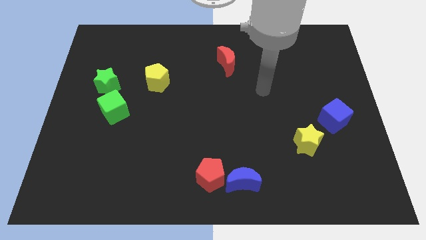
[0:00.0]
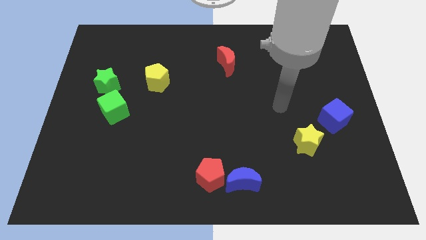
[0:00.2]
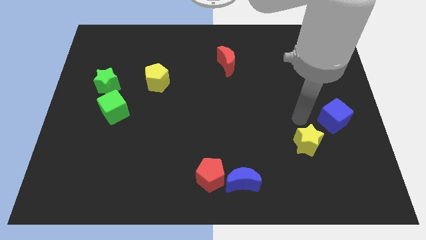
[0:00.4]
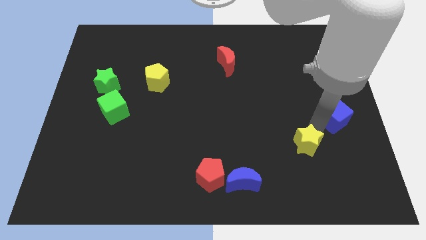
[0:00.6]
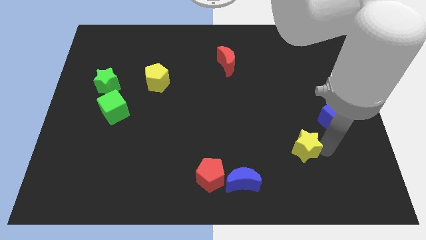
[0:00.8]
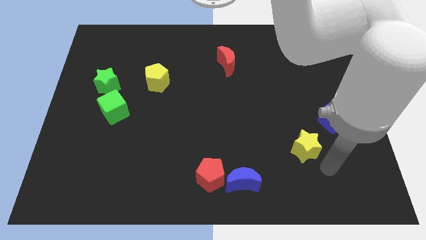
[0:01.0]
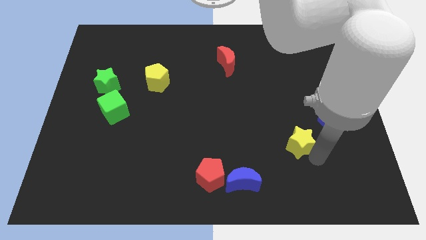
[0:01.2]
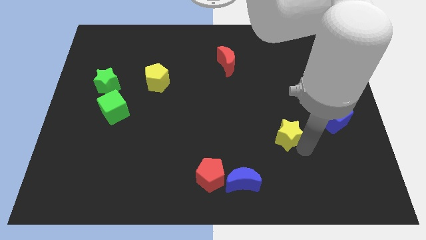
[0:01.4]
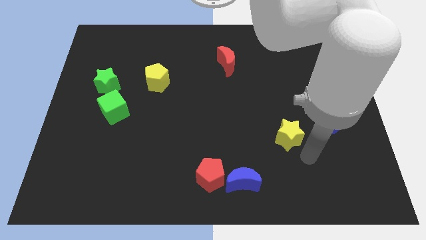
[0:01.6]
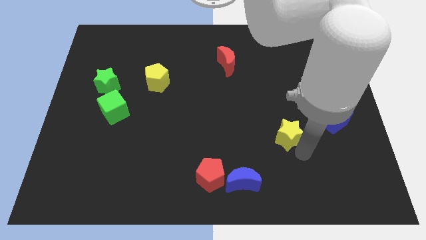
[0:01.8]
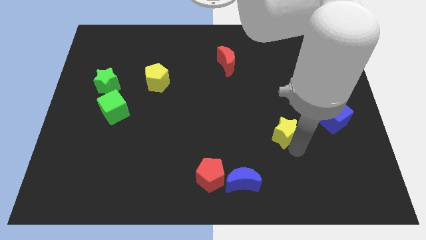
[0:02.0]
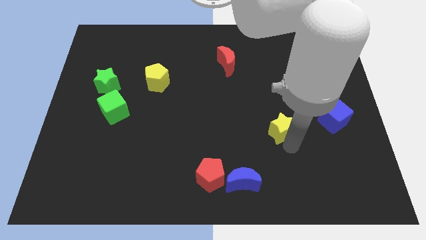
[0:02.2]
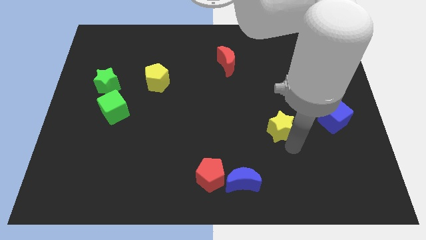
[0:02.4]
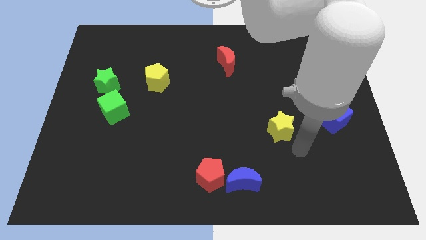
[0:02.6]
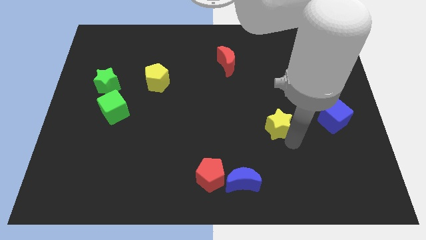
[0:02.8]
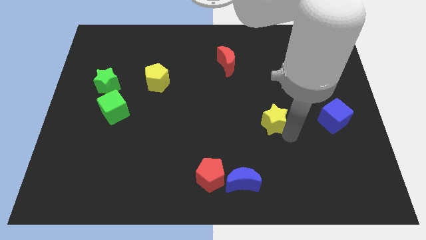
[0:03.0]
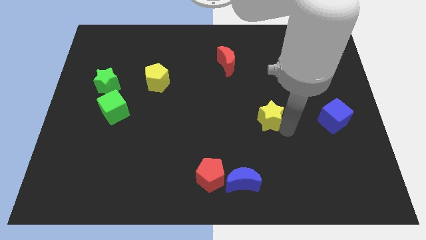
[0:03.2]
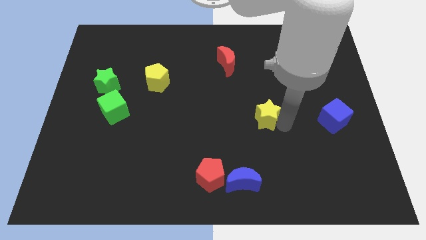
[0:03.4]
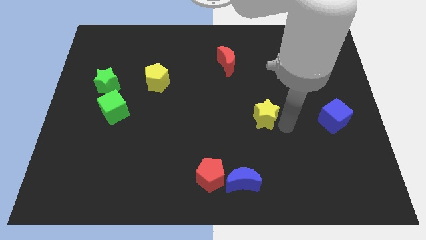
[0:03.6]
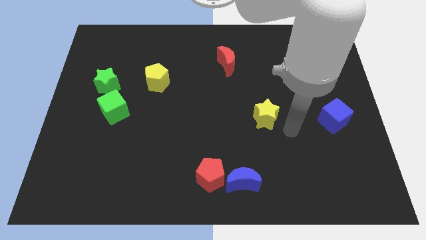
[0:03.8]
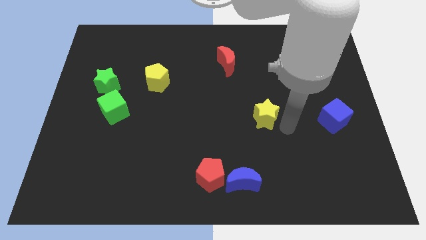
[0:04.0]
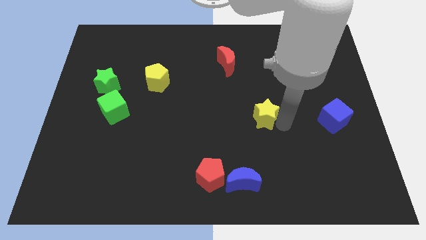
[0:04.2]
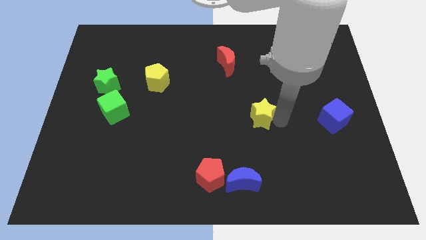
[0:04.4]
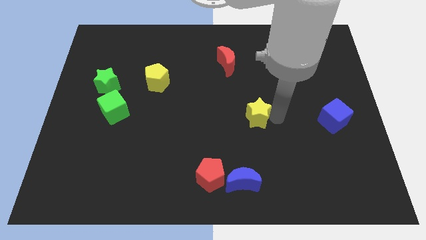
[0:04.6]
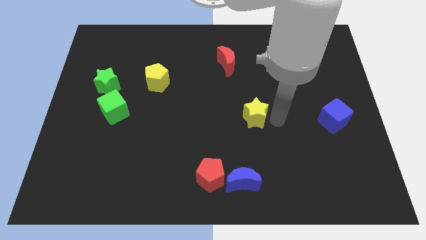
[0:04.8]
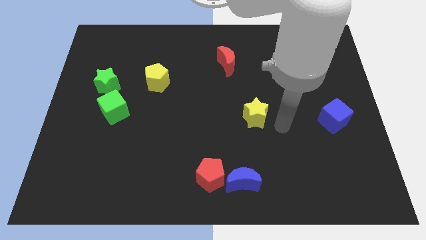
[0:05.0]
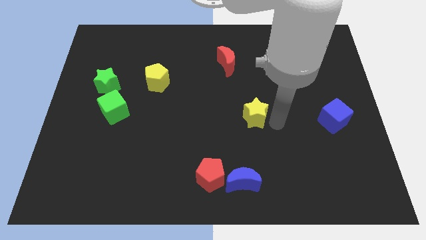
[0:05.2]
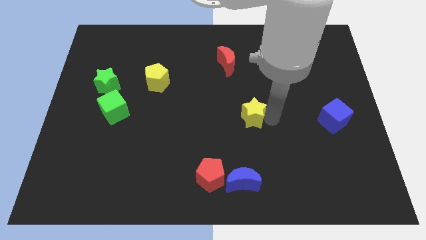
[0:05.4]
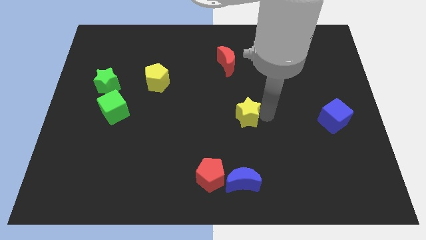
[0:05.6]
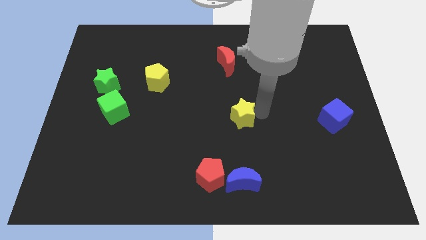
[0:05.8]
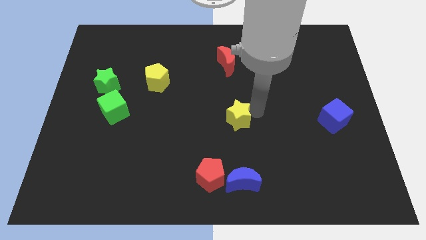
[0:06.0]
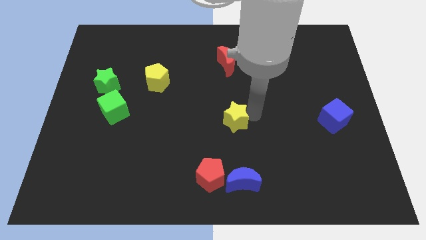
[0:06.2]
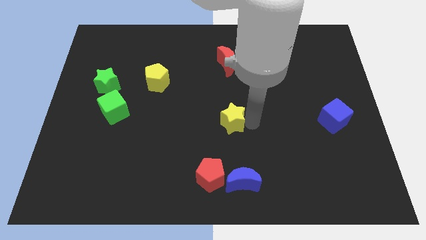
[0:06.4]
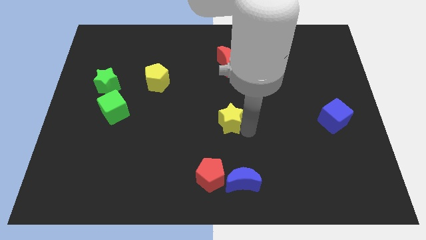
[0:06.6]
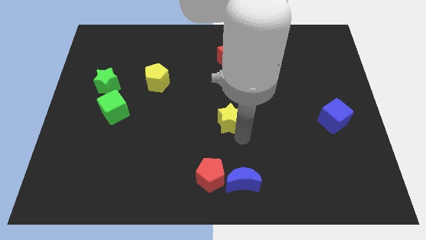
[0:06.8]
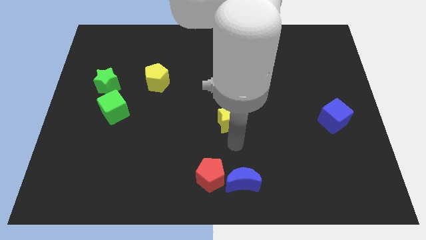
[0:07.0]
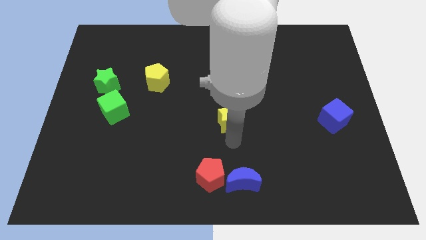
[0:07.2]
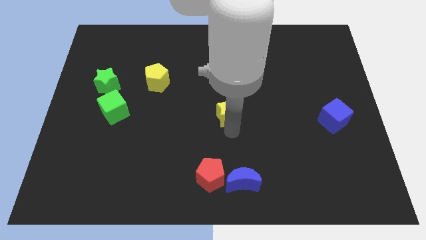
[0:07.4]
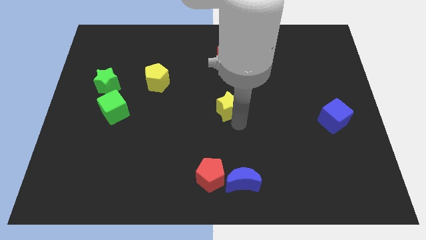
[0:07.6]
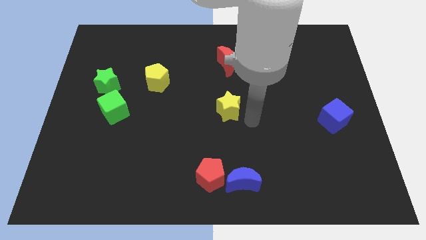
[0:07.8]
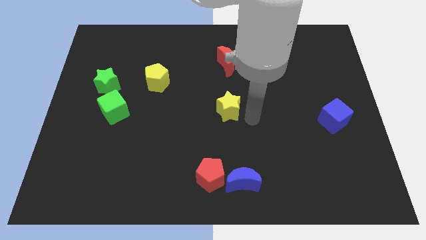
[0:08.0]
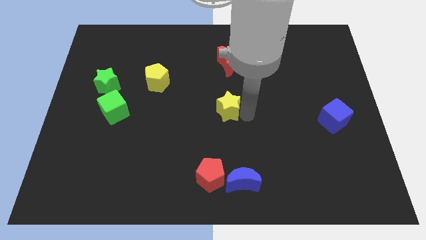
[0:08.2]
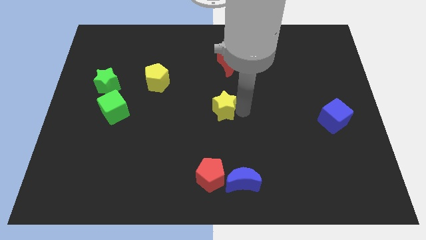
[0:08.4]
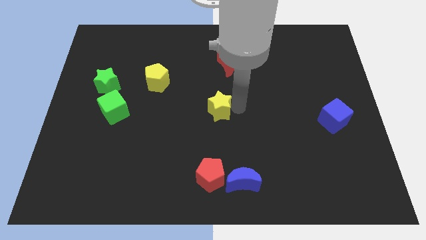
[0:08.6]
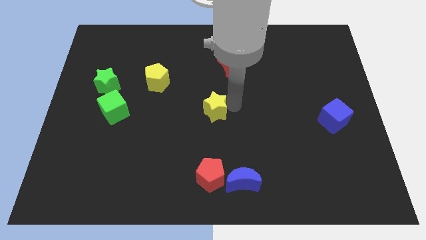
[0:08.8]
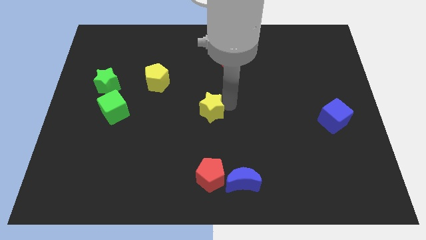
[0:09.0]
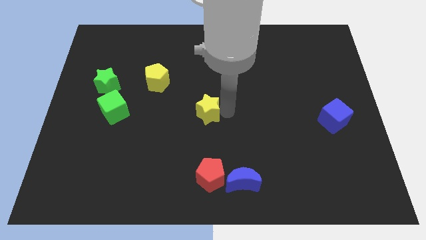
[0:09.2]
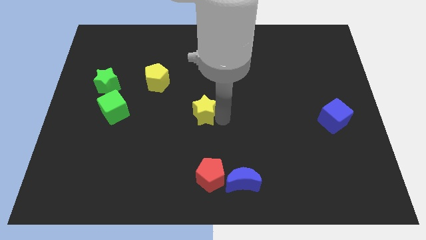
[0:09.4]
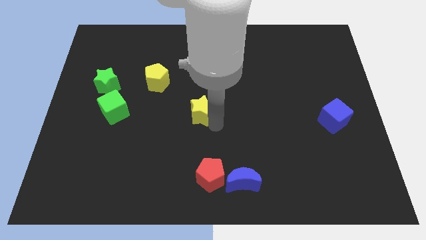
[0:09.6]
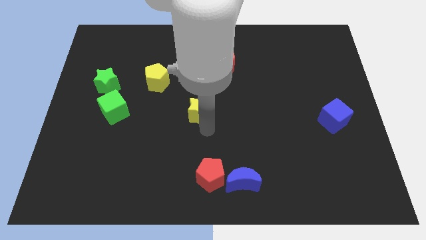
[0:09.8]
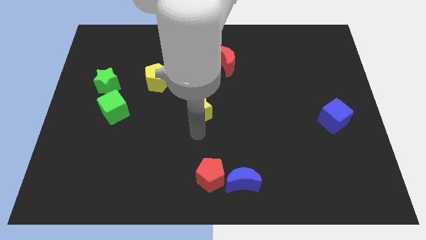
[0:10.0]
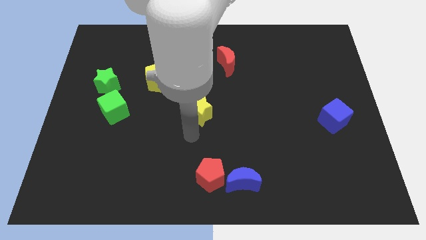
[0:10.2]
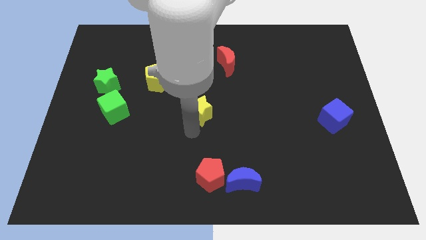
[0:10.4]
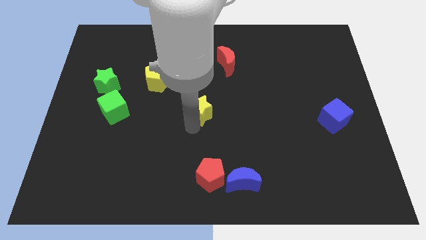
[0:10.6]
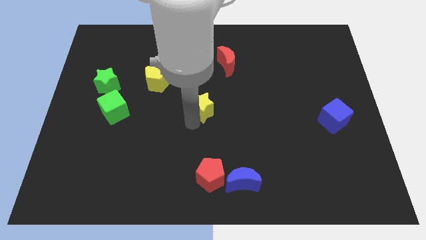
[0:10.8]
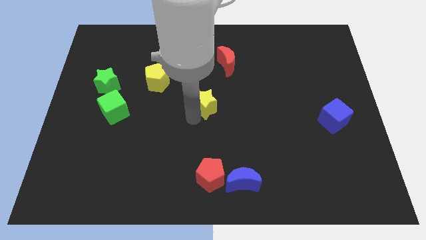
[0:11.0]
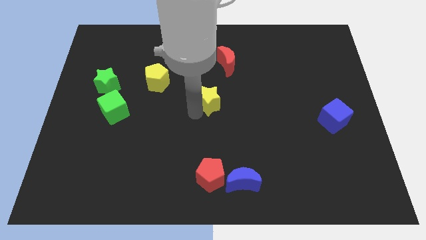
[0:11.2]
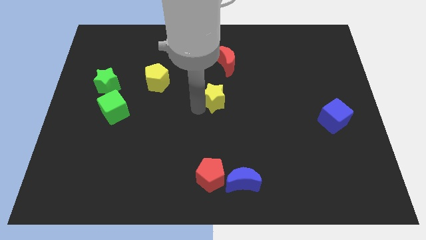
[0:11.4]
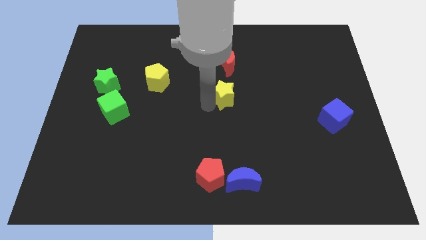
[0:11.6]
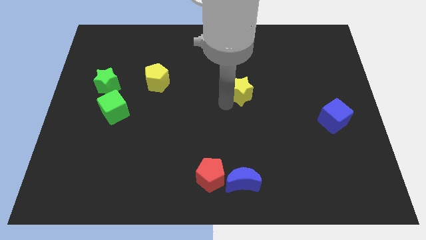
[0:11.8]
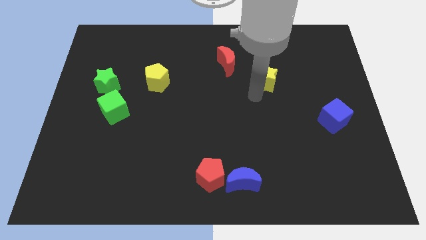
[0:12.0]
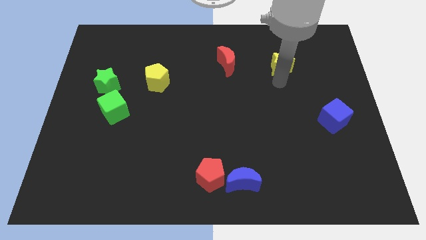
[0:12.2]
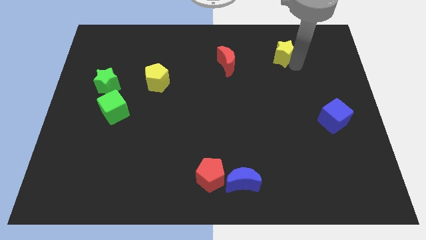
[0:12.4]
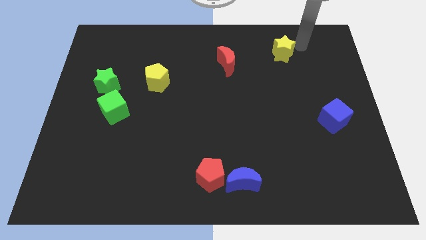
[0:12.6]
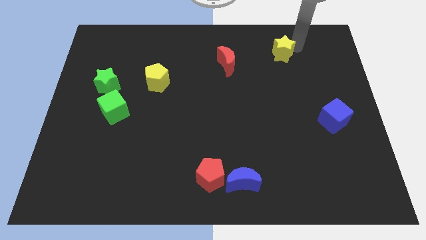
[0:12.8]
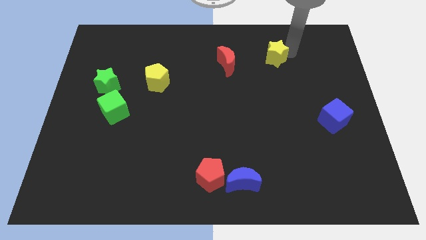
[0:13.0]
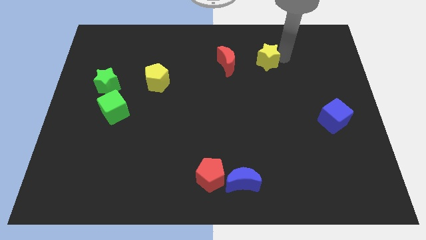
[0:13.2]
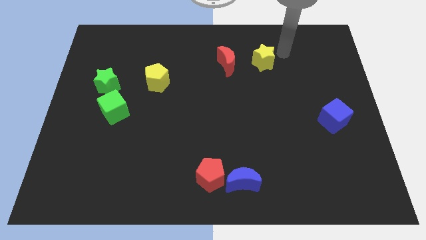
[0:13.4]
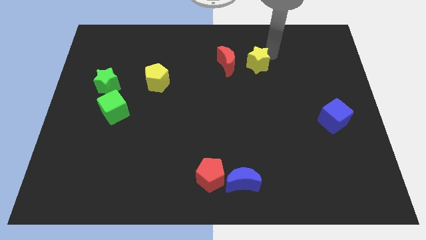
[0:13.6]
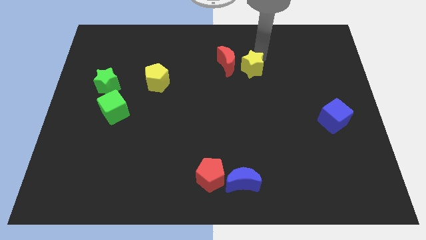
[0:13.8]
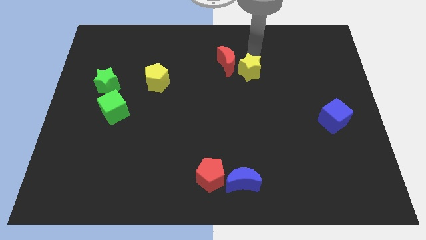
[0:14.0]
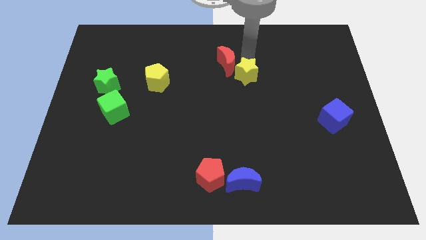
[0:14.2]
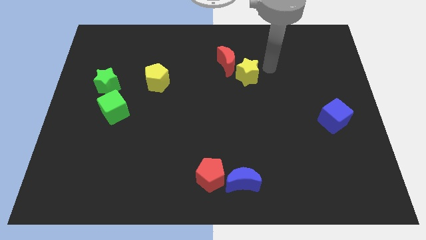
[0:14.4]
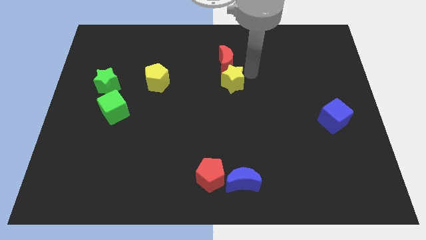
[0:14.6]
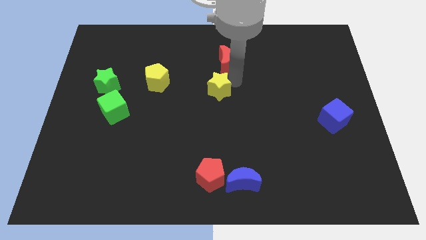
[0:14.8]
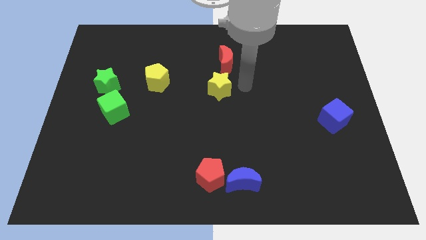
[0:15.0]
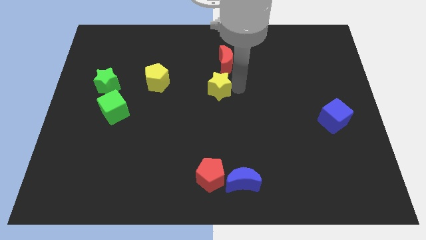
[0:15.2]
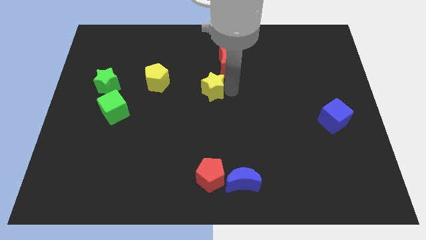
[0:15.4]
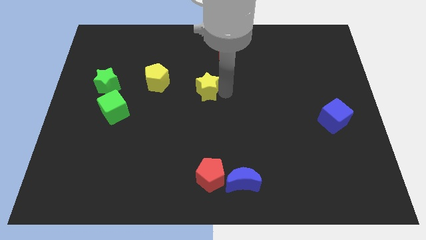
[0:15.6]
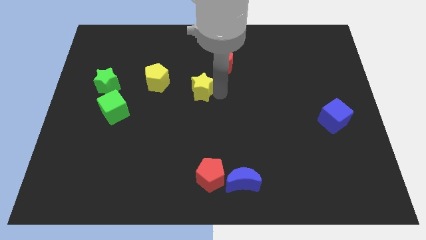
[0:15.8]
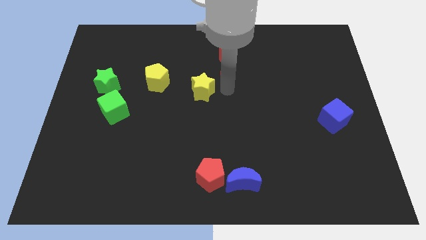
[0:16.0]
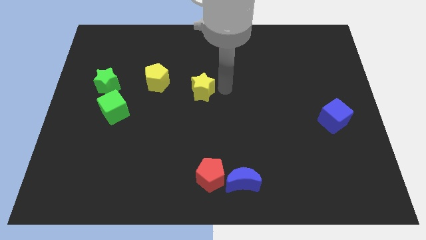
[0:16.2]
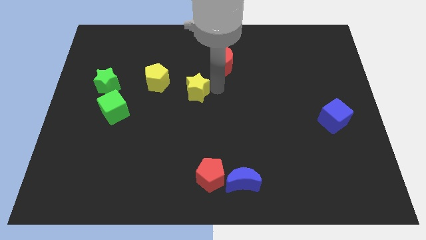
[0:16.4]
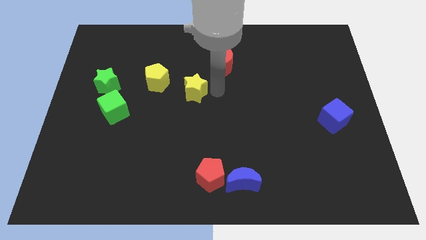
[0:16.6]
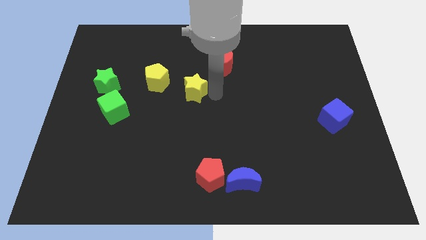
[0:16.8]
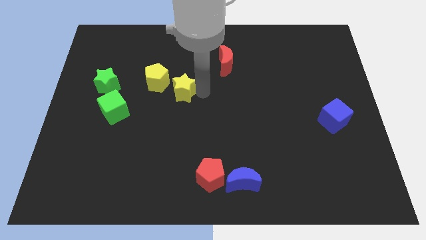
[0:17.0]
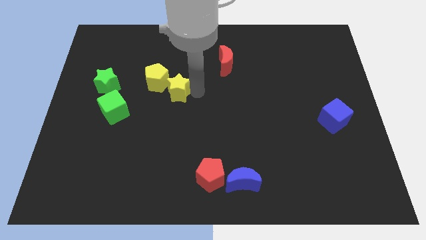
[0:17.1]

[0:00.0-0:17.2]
move the yellow star towards the yellow pentagon
